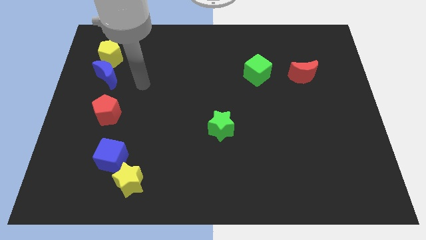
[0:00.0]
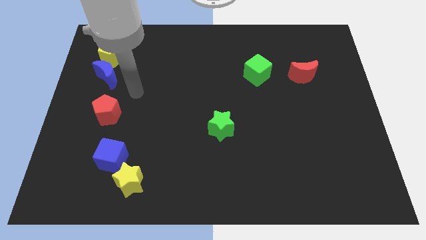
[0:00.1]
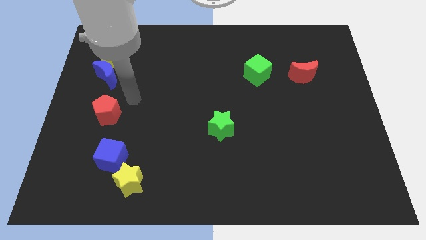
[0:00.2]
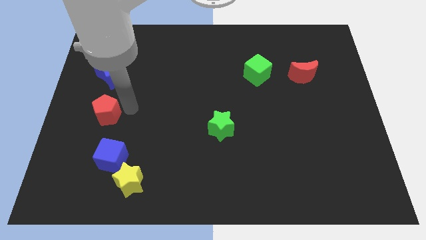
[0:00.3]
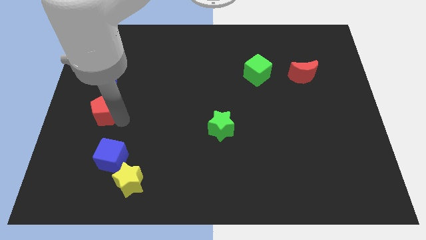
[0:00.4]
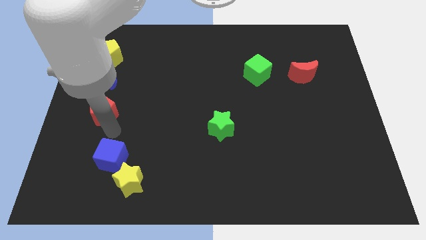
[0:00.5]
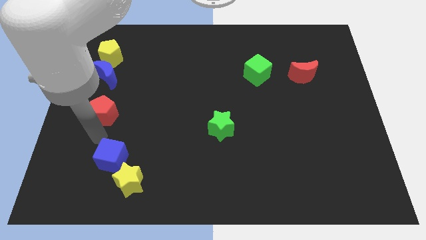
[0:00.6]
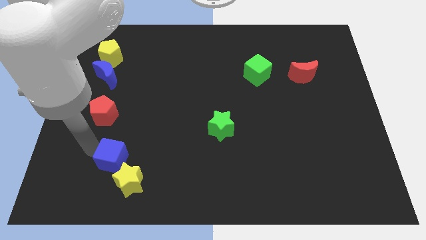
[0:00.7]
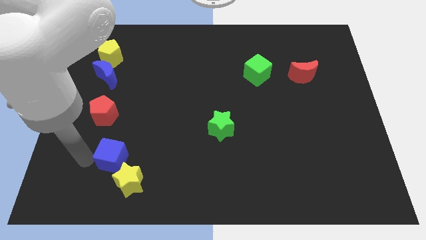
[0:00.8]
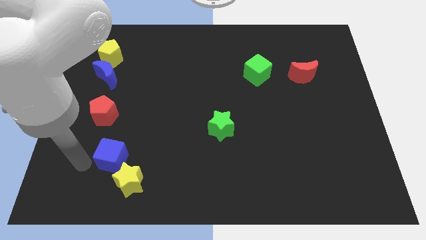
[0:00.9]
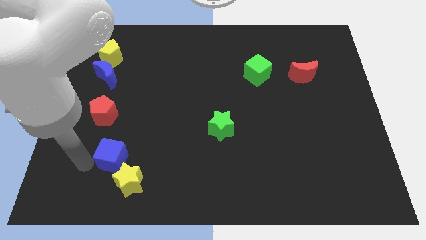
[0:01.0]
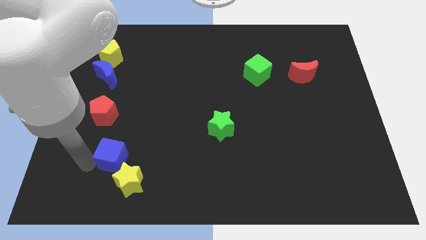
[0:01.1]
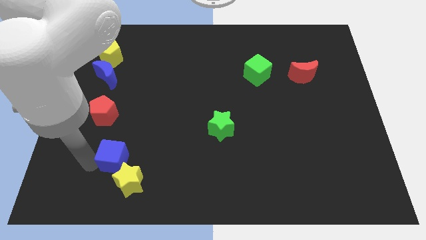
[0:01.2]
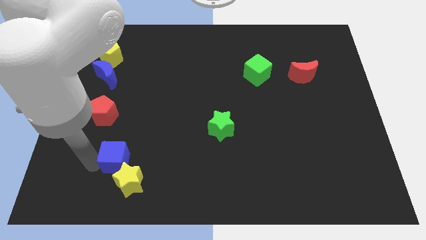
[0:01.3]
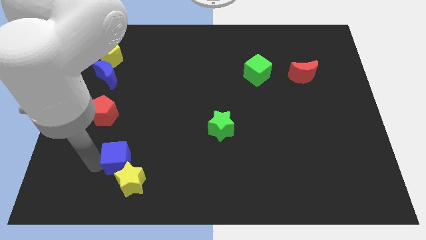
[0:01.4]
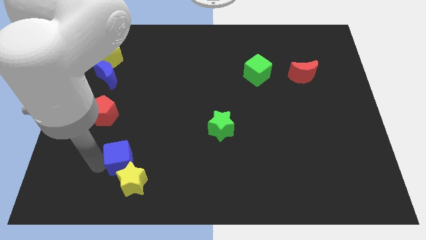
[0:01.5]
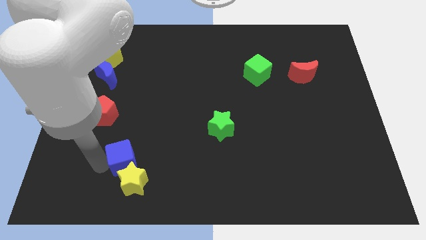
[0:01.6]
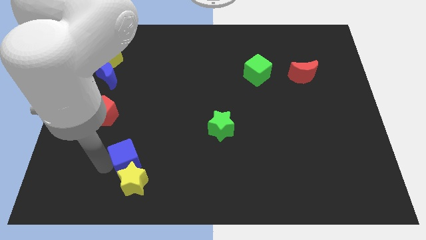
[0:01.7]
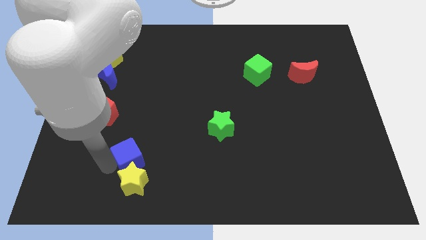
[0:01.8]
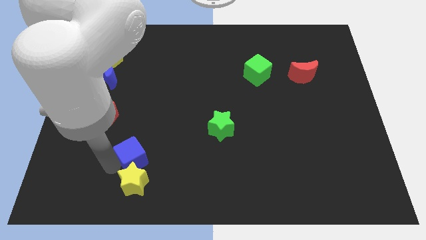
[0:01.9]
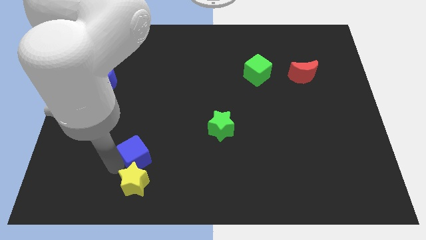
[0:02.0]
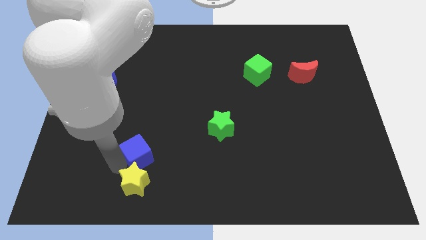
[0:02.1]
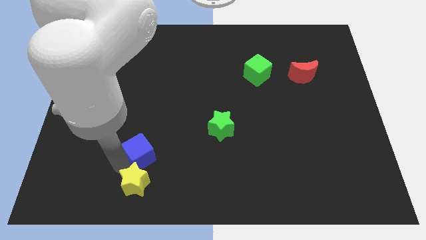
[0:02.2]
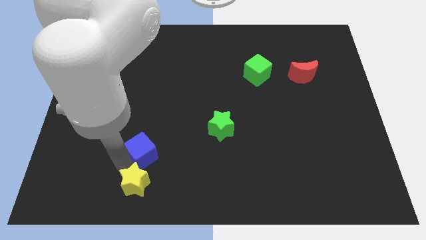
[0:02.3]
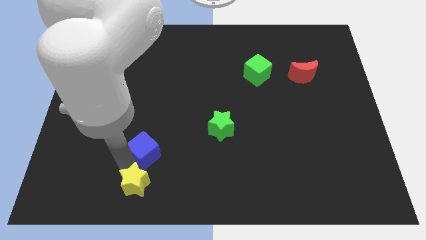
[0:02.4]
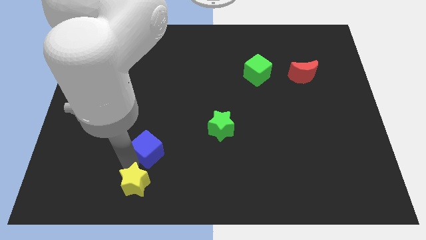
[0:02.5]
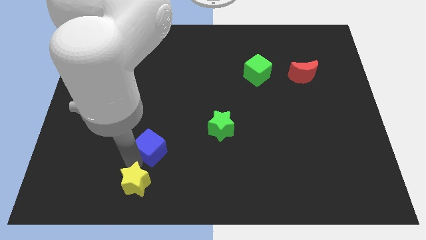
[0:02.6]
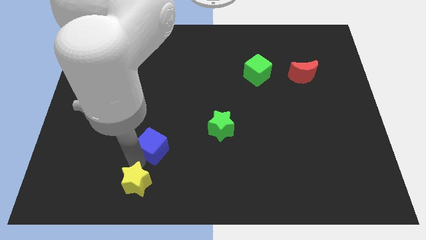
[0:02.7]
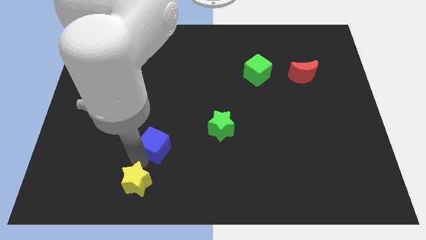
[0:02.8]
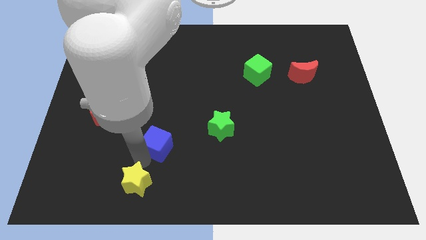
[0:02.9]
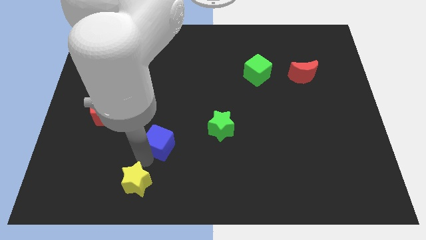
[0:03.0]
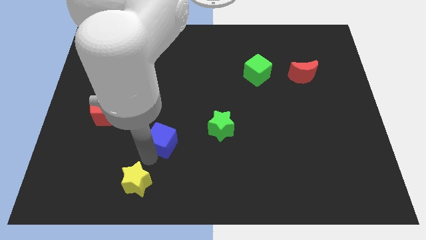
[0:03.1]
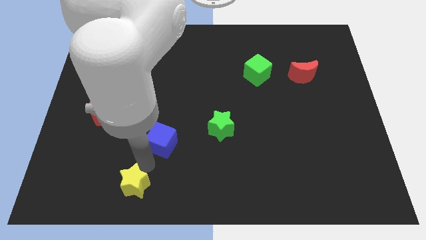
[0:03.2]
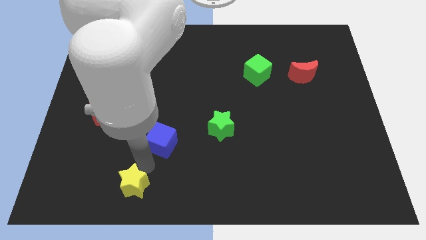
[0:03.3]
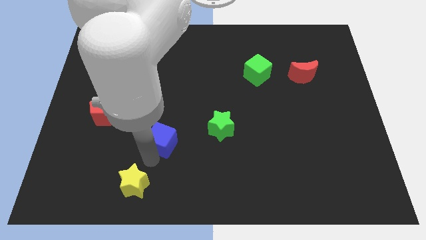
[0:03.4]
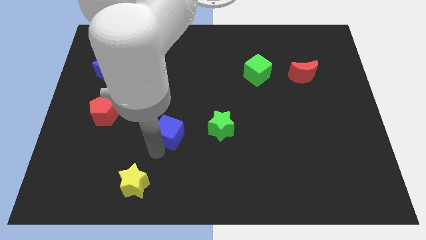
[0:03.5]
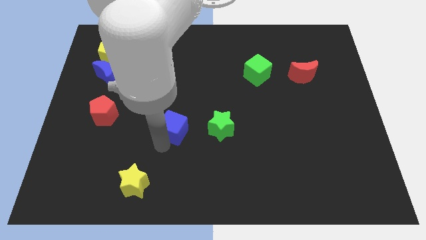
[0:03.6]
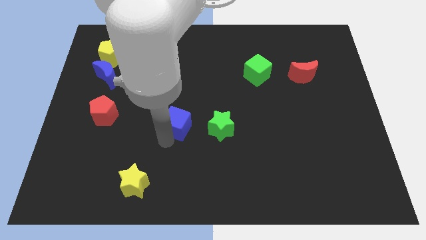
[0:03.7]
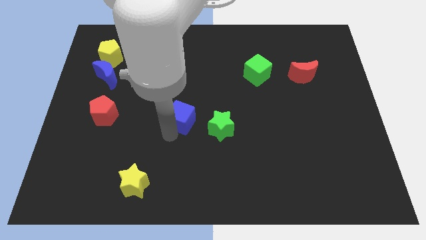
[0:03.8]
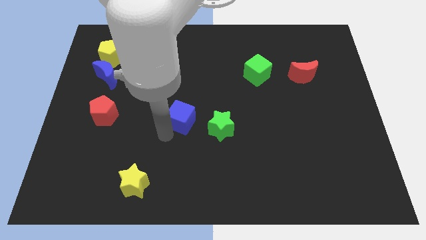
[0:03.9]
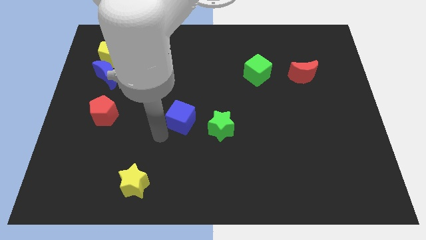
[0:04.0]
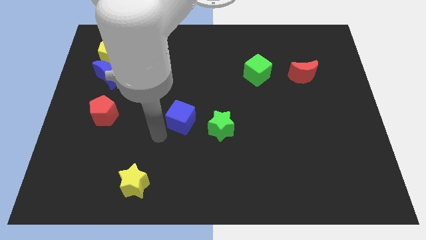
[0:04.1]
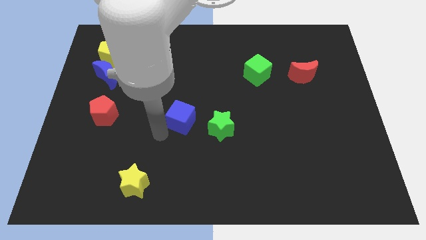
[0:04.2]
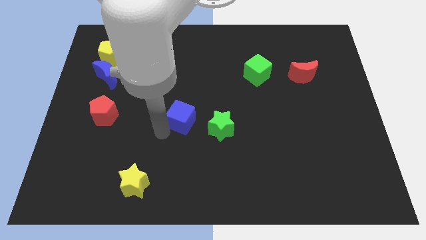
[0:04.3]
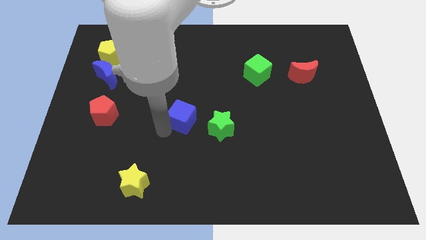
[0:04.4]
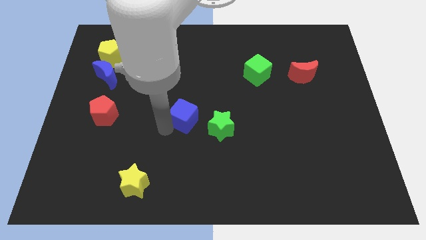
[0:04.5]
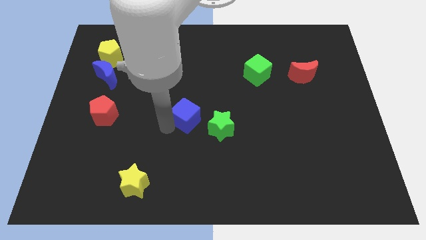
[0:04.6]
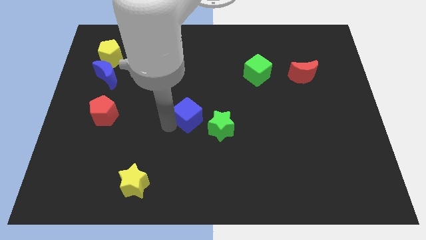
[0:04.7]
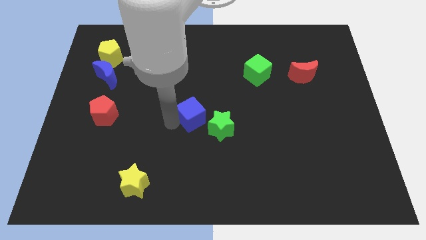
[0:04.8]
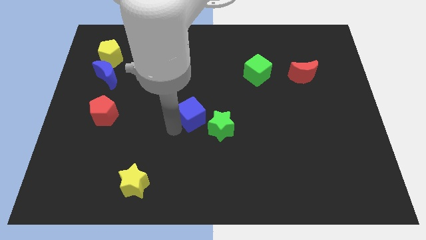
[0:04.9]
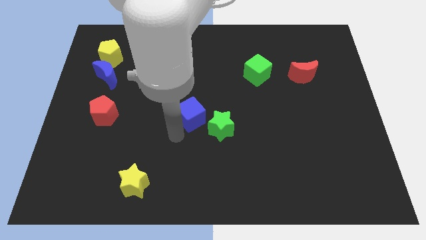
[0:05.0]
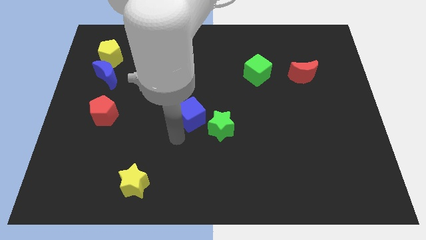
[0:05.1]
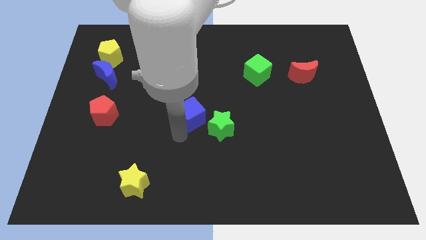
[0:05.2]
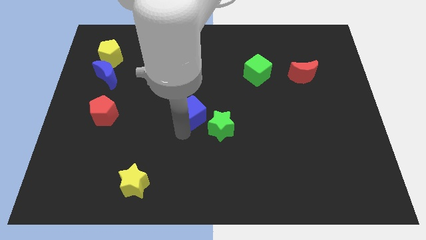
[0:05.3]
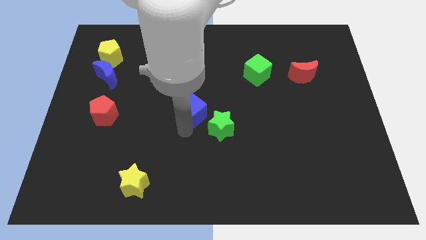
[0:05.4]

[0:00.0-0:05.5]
slide the blue cube upwards and then to the right

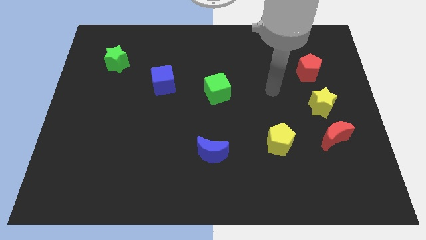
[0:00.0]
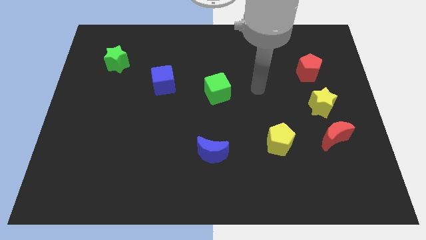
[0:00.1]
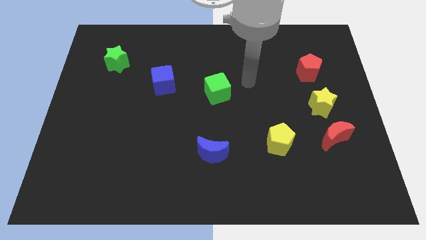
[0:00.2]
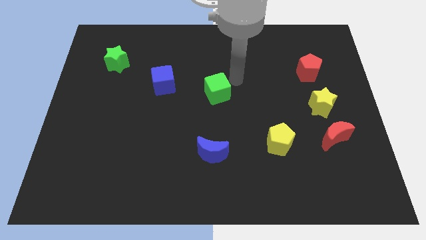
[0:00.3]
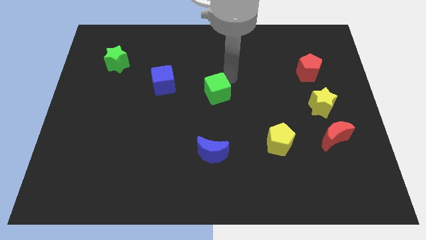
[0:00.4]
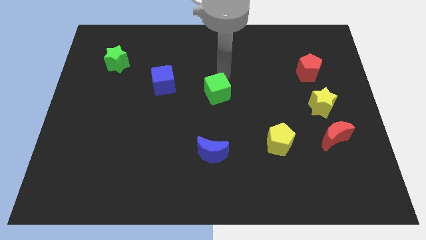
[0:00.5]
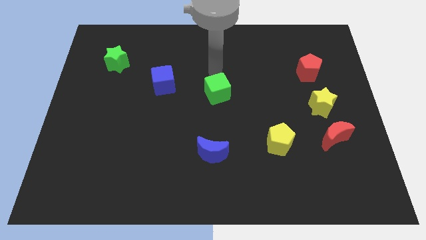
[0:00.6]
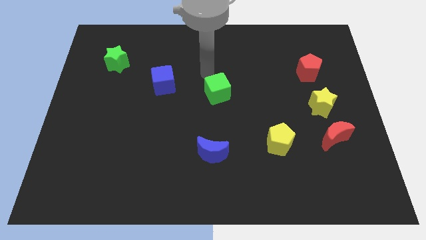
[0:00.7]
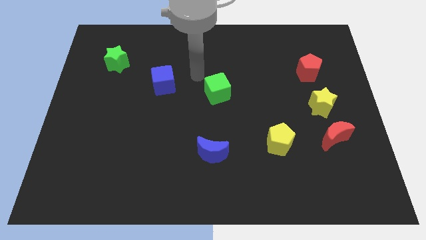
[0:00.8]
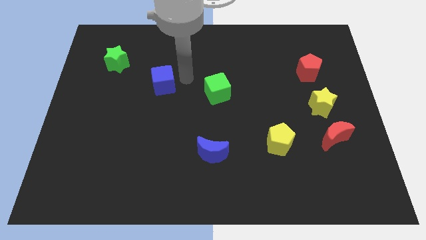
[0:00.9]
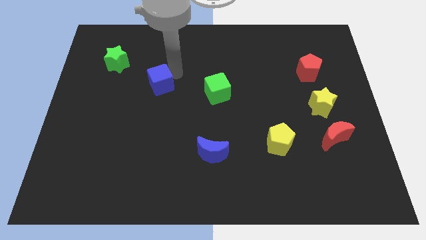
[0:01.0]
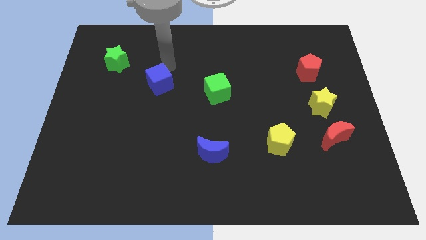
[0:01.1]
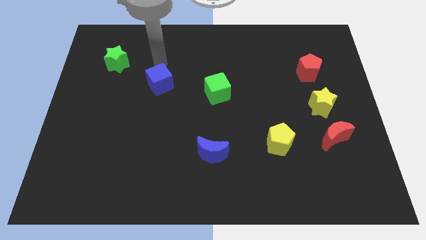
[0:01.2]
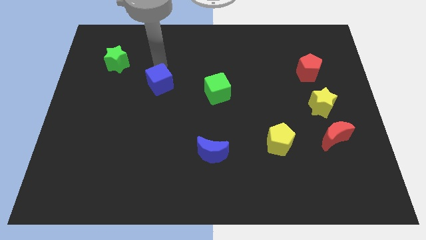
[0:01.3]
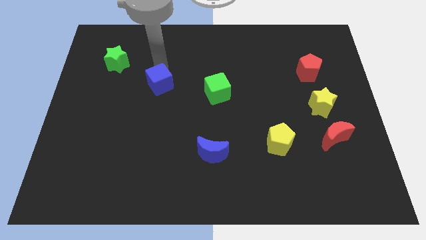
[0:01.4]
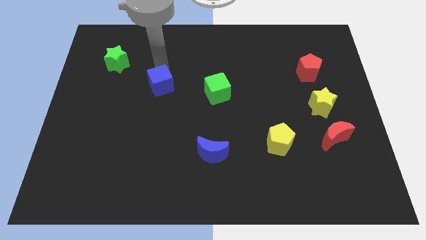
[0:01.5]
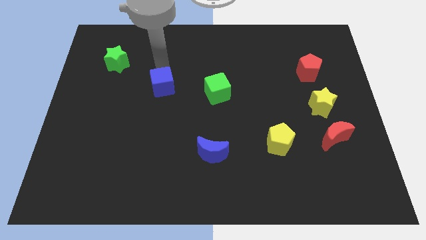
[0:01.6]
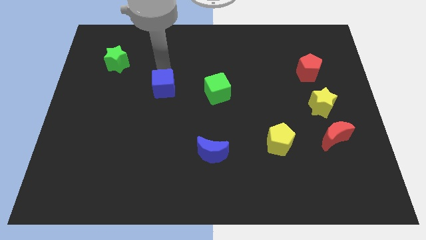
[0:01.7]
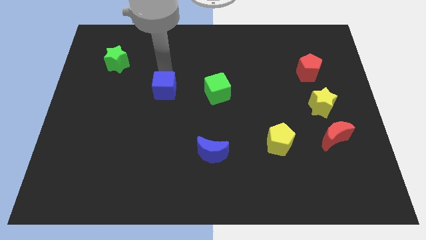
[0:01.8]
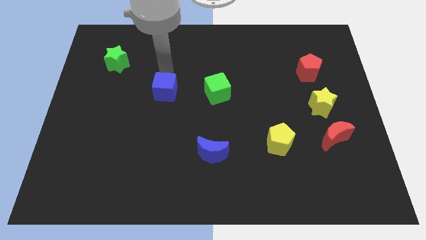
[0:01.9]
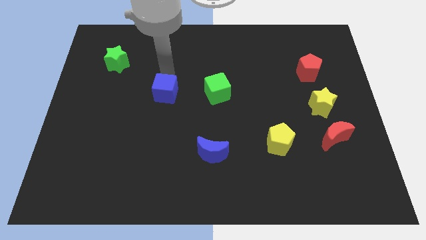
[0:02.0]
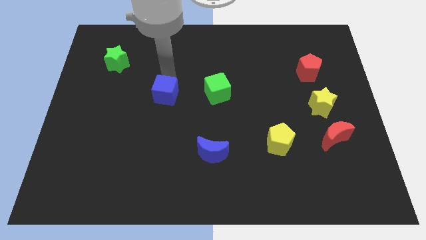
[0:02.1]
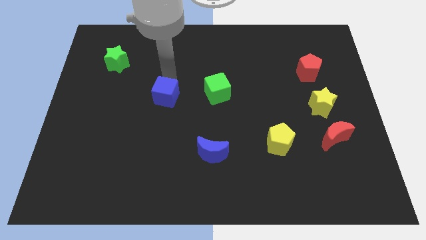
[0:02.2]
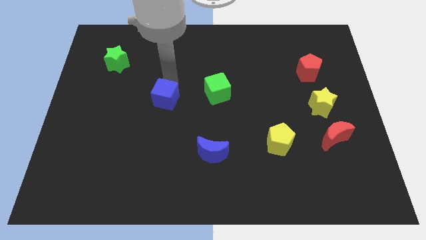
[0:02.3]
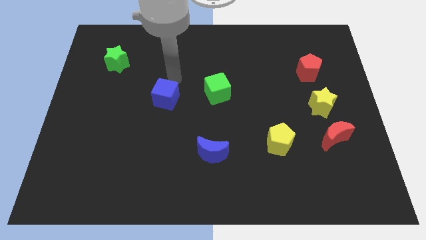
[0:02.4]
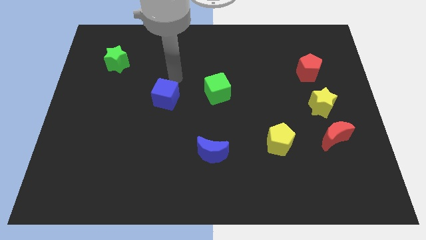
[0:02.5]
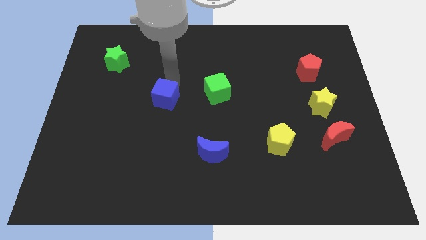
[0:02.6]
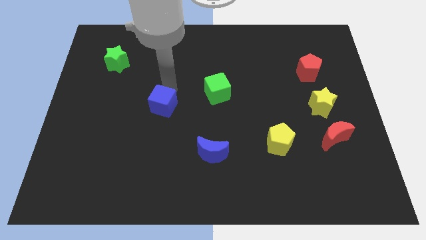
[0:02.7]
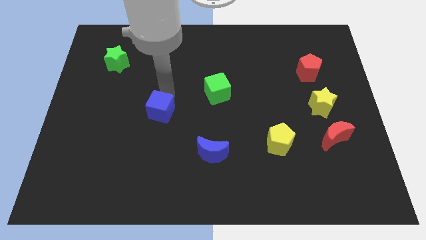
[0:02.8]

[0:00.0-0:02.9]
slightly slide the blue cube downwards
